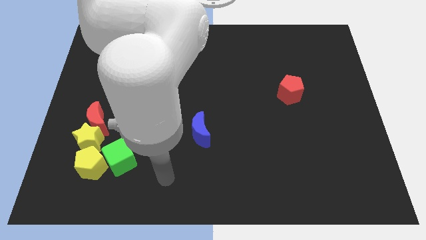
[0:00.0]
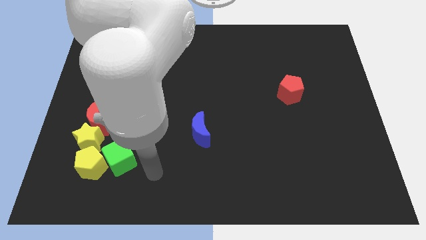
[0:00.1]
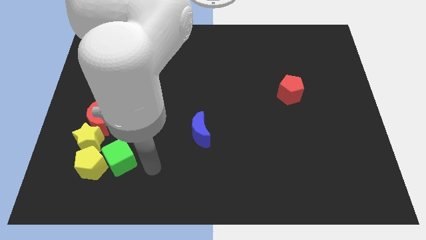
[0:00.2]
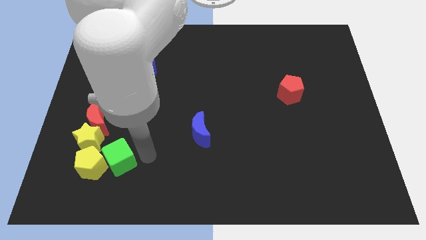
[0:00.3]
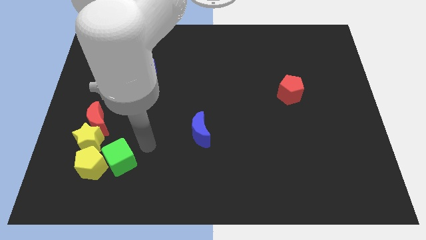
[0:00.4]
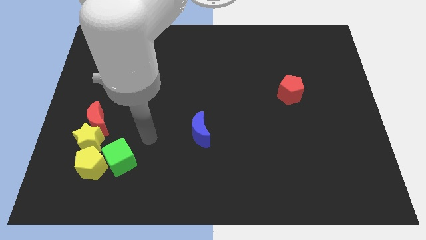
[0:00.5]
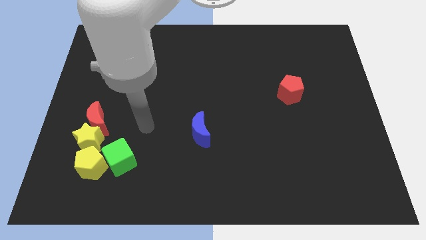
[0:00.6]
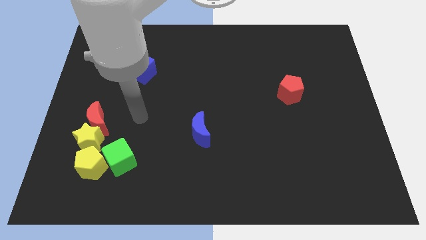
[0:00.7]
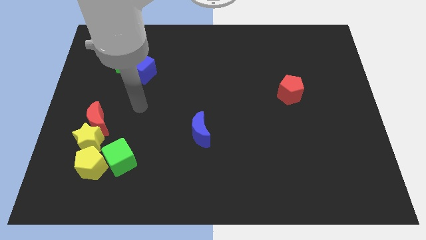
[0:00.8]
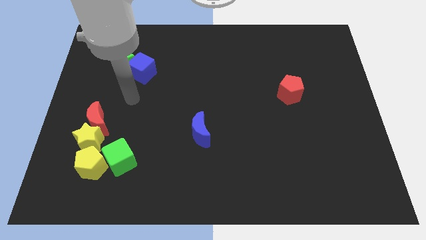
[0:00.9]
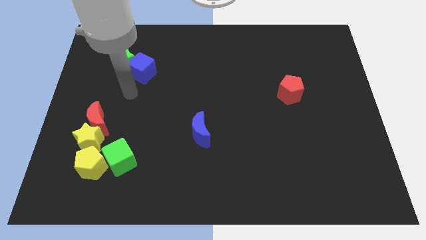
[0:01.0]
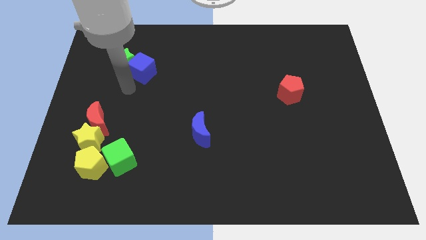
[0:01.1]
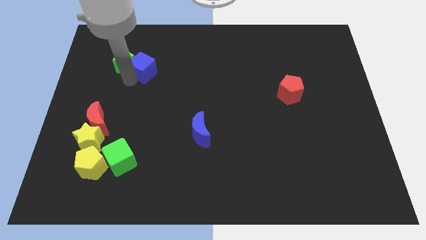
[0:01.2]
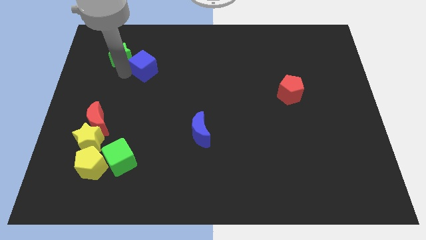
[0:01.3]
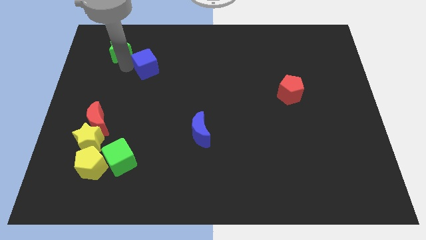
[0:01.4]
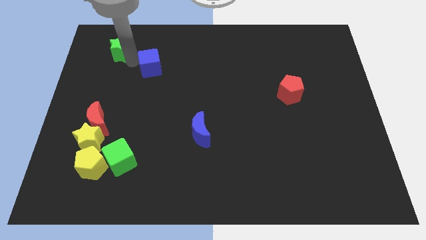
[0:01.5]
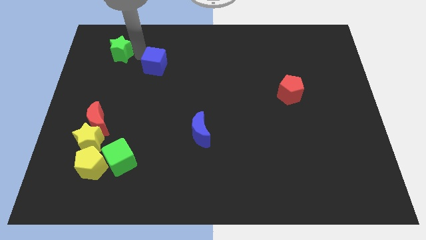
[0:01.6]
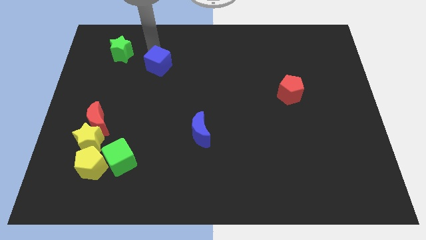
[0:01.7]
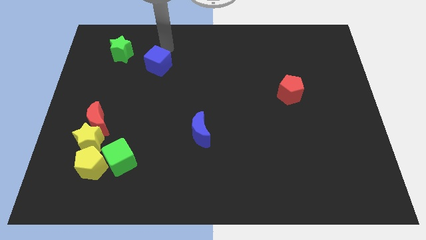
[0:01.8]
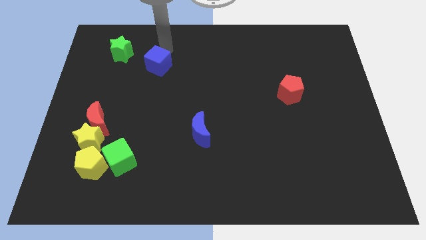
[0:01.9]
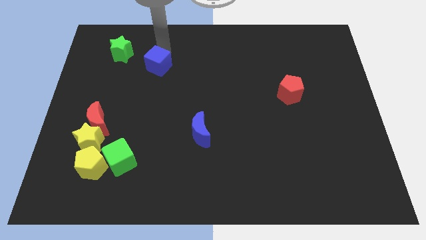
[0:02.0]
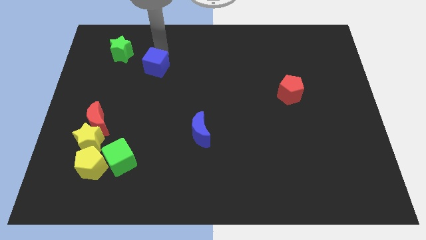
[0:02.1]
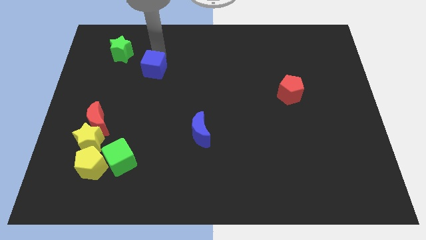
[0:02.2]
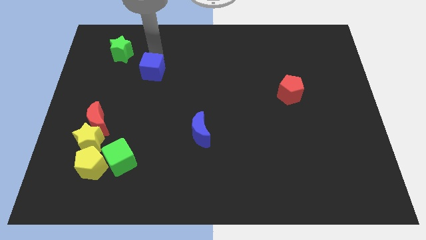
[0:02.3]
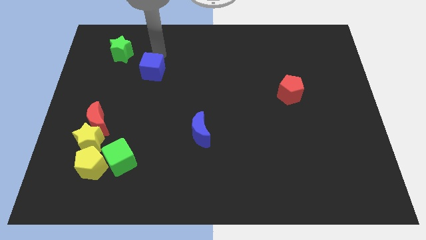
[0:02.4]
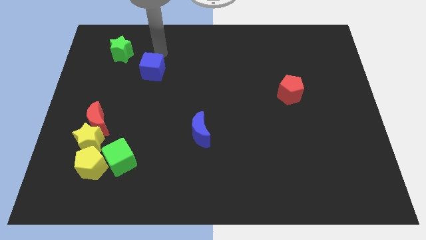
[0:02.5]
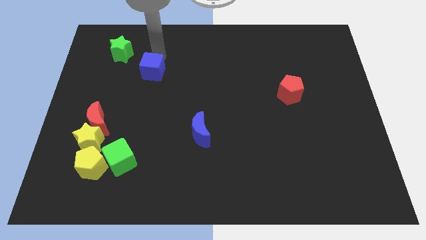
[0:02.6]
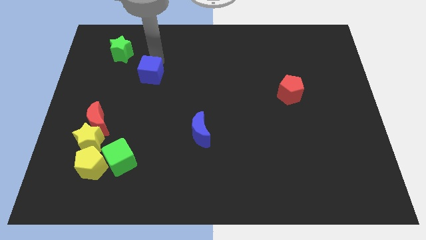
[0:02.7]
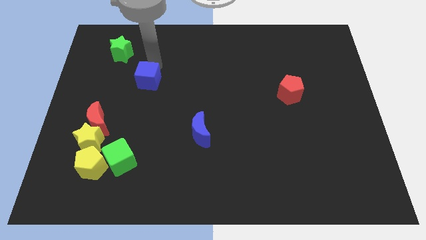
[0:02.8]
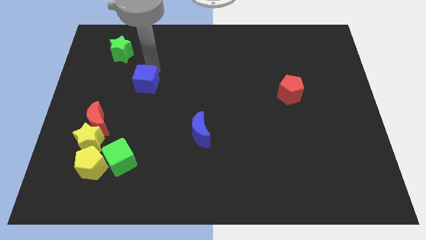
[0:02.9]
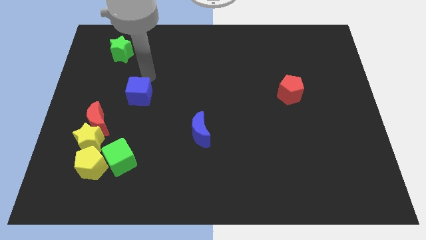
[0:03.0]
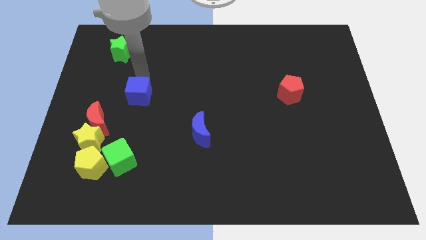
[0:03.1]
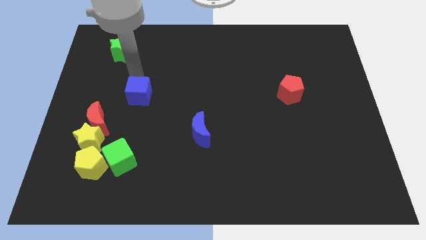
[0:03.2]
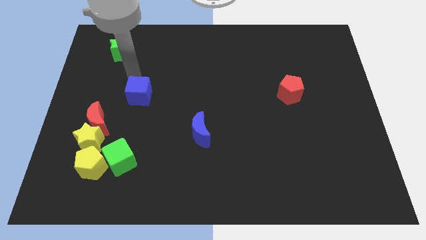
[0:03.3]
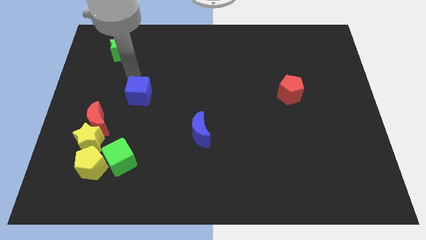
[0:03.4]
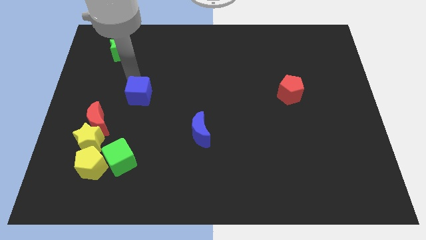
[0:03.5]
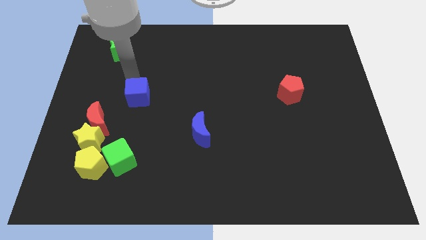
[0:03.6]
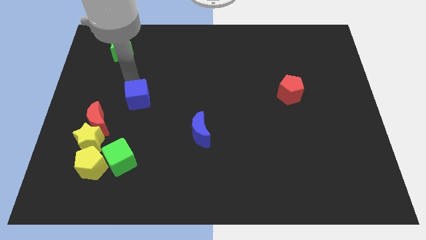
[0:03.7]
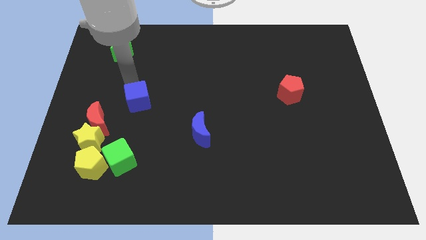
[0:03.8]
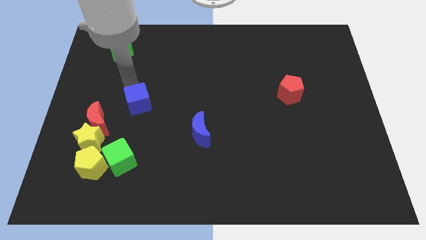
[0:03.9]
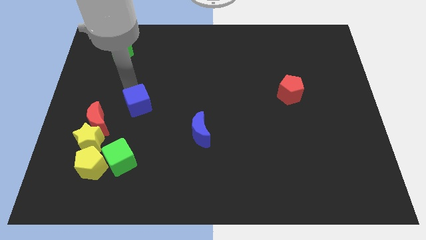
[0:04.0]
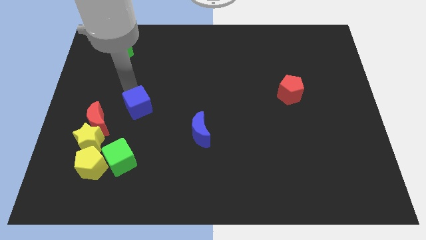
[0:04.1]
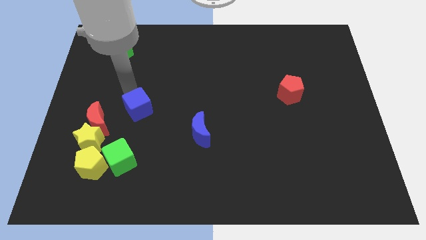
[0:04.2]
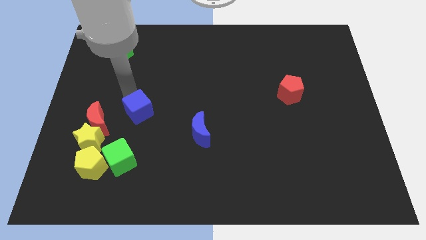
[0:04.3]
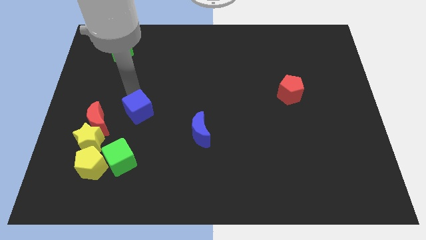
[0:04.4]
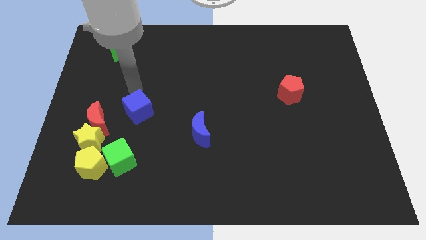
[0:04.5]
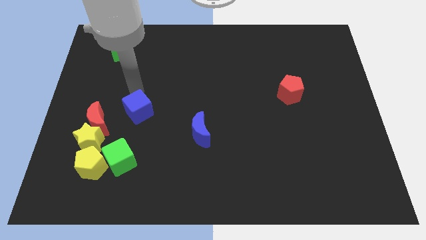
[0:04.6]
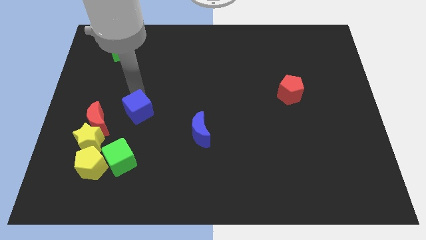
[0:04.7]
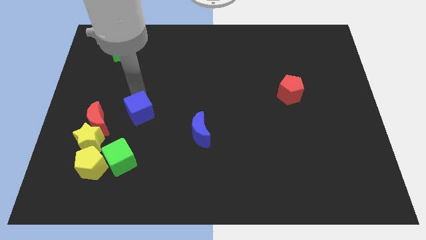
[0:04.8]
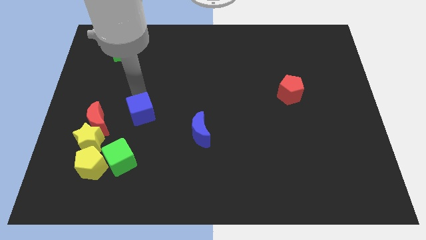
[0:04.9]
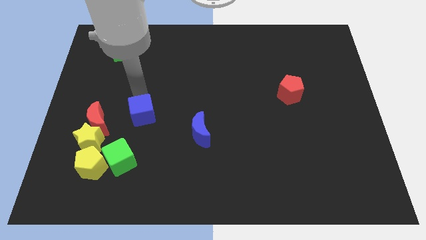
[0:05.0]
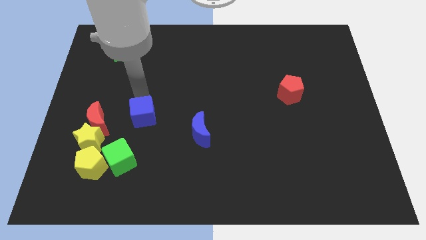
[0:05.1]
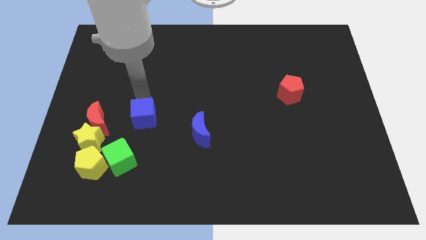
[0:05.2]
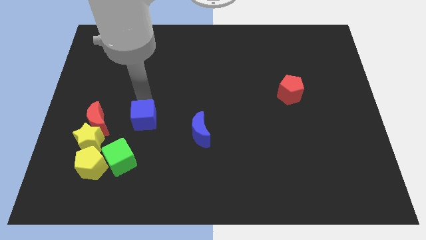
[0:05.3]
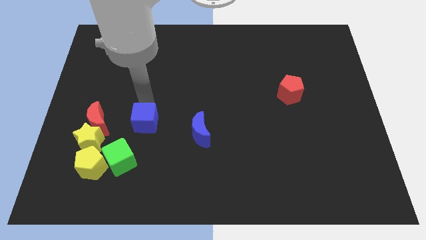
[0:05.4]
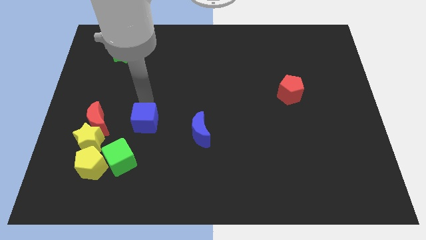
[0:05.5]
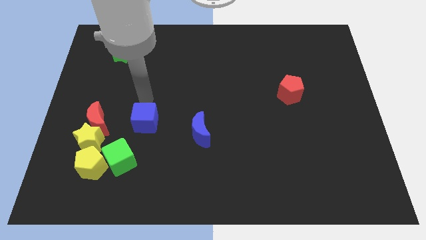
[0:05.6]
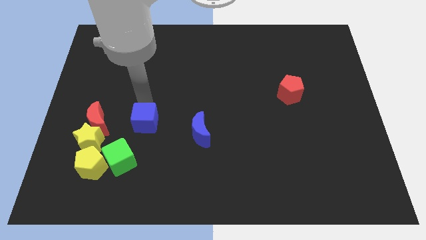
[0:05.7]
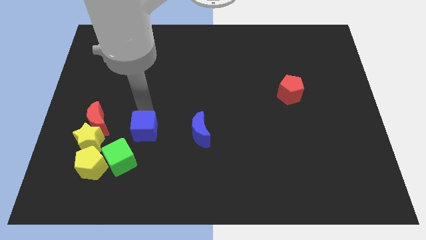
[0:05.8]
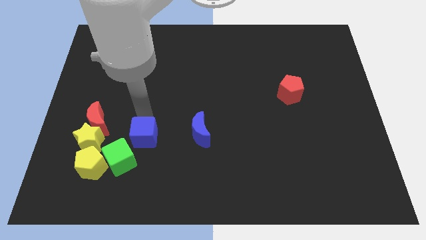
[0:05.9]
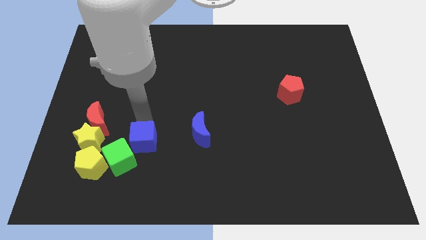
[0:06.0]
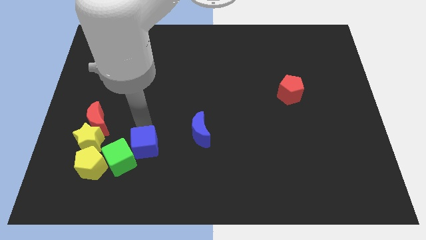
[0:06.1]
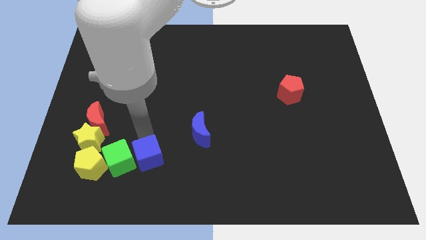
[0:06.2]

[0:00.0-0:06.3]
put the blue cube diagonally down and to the right of the green cube
